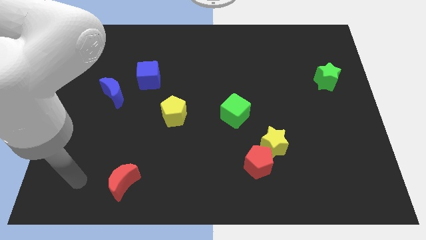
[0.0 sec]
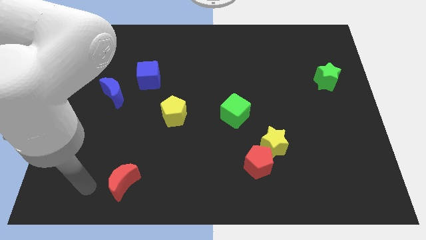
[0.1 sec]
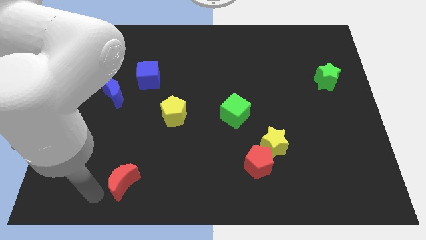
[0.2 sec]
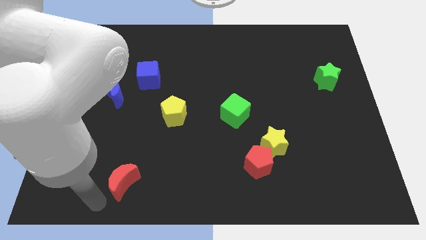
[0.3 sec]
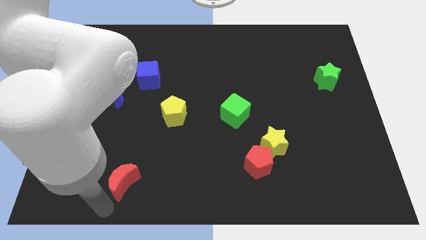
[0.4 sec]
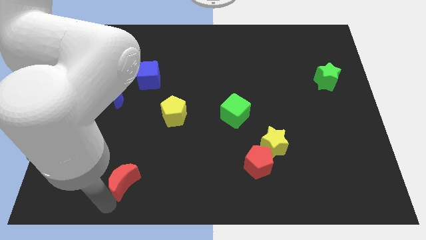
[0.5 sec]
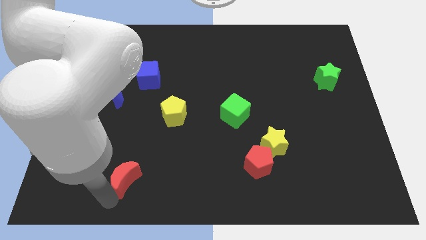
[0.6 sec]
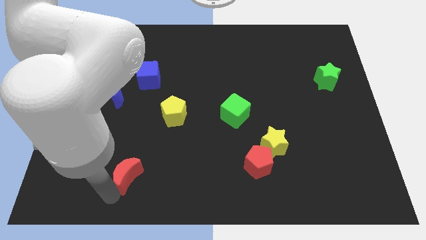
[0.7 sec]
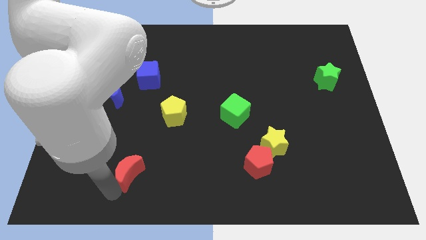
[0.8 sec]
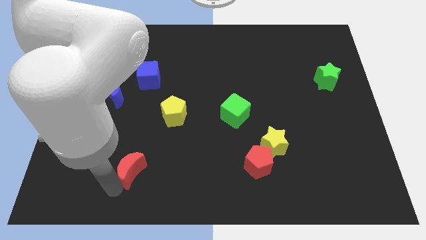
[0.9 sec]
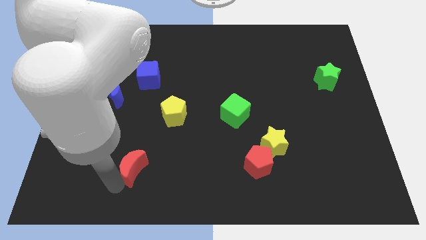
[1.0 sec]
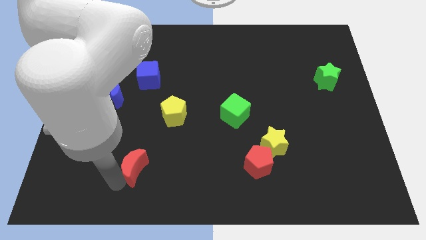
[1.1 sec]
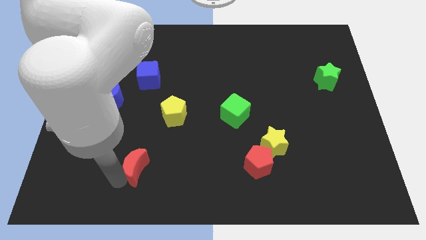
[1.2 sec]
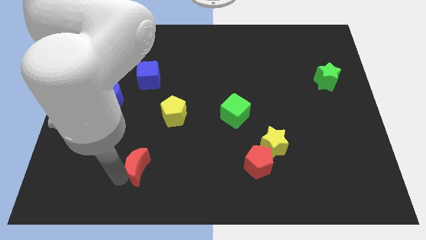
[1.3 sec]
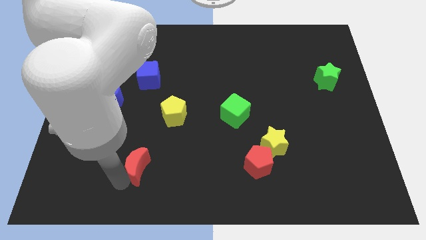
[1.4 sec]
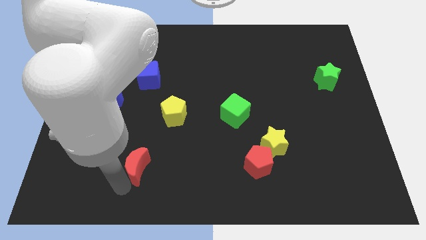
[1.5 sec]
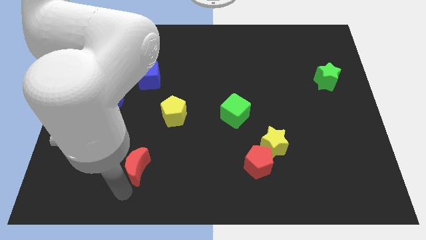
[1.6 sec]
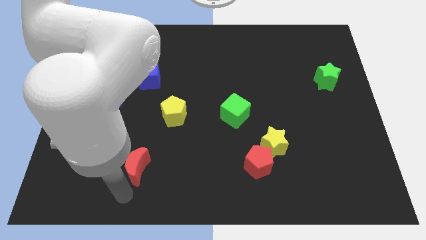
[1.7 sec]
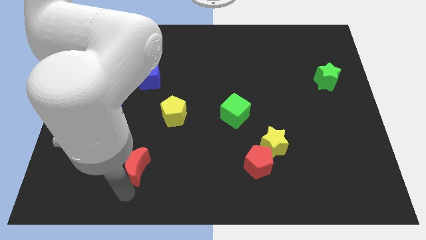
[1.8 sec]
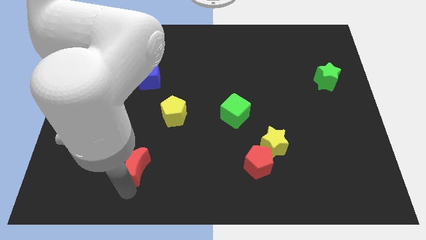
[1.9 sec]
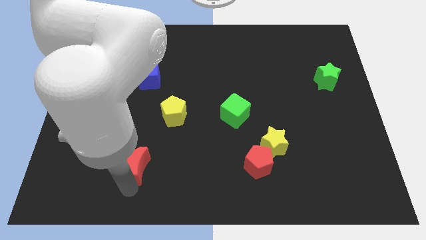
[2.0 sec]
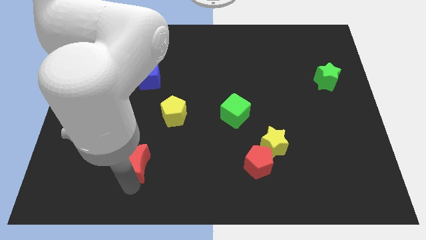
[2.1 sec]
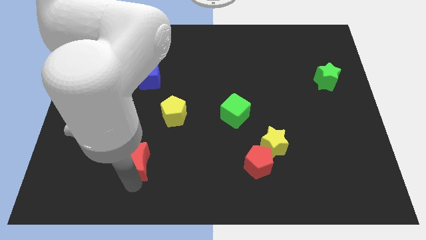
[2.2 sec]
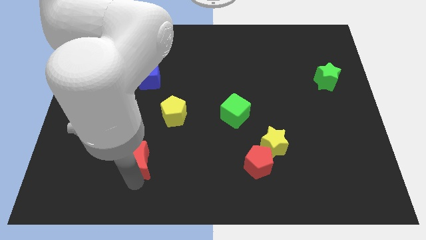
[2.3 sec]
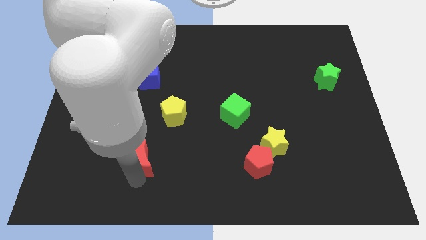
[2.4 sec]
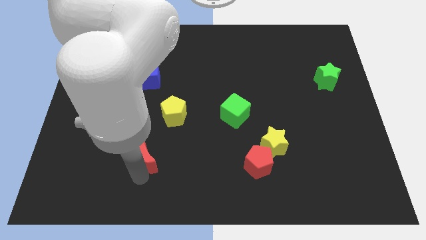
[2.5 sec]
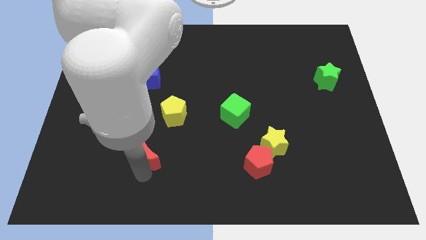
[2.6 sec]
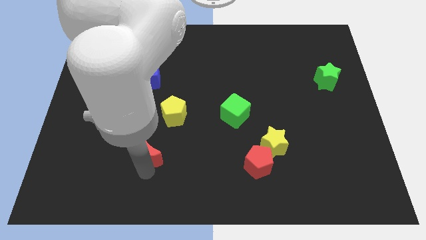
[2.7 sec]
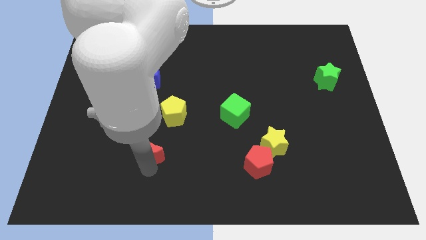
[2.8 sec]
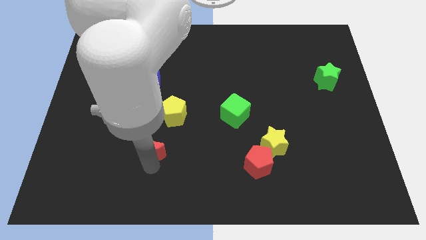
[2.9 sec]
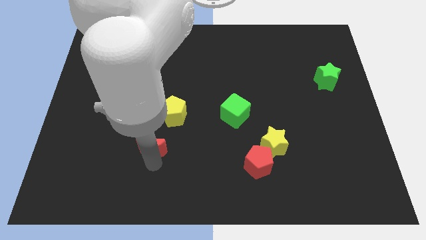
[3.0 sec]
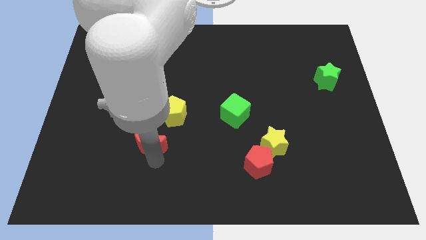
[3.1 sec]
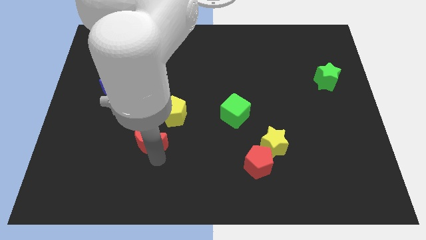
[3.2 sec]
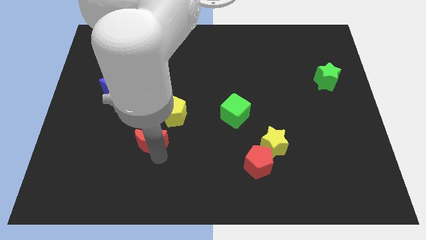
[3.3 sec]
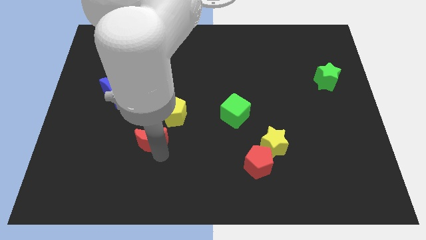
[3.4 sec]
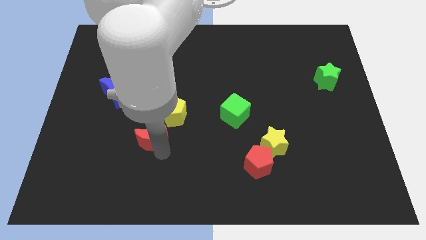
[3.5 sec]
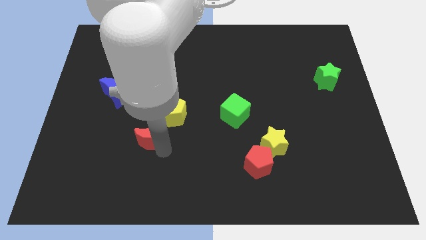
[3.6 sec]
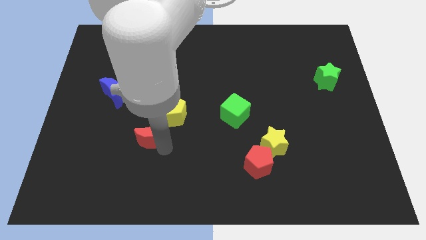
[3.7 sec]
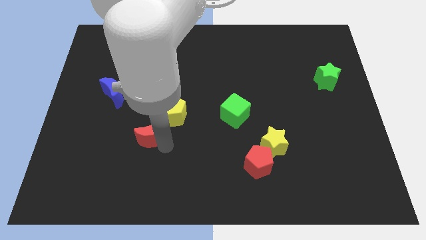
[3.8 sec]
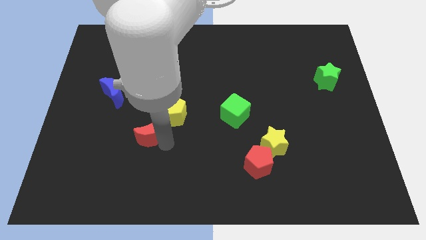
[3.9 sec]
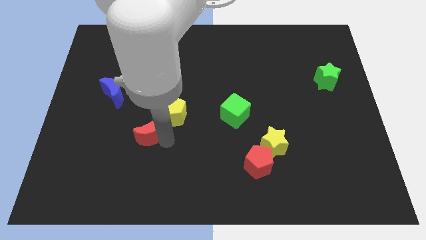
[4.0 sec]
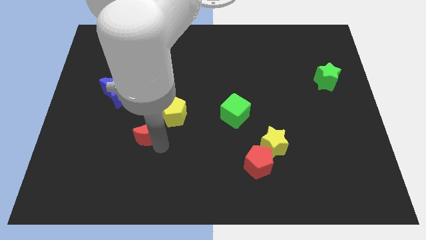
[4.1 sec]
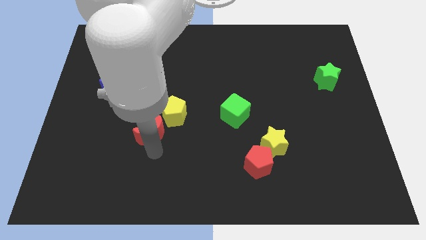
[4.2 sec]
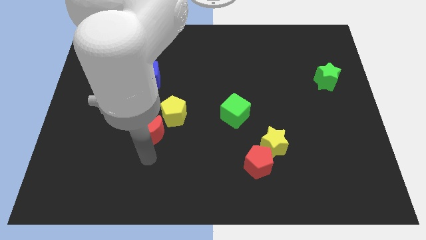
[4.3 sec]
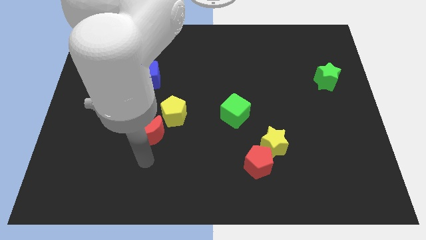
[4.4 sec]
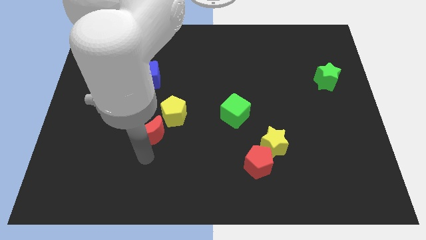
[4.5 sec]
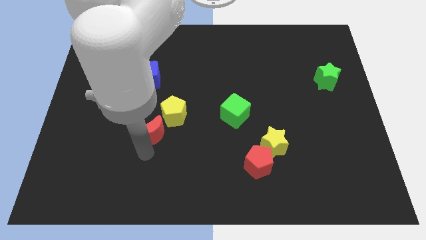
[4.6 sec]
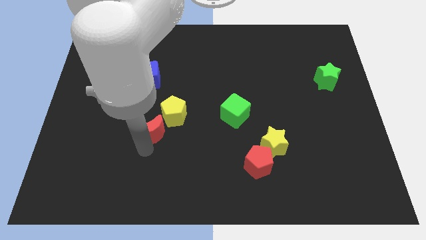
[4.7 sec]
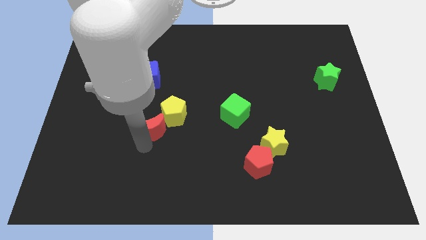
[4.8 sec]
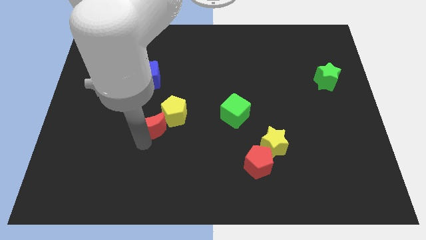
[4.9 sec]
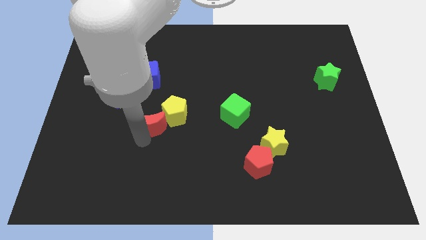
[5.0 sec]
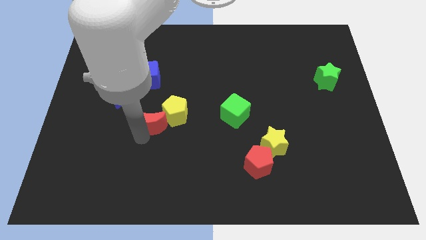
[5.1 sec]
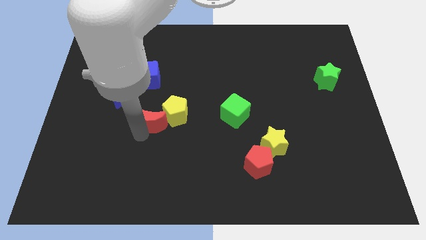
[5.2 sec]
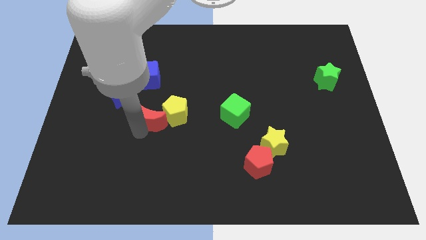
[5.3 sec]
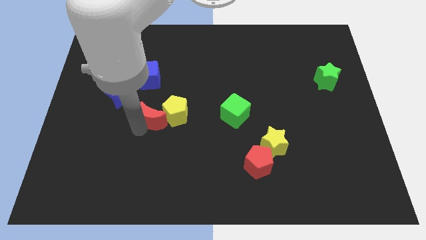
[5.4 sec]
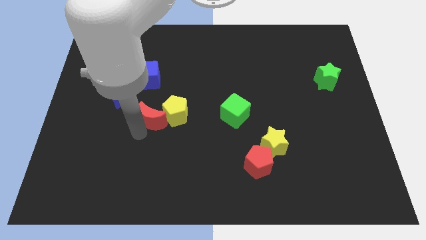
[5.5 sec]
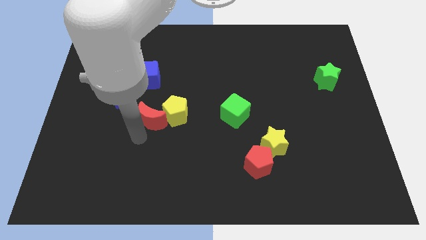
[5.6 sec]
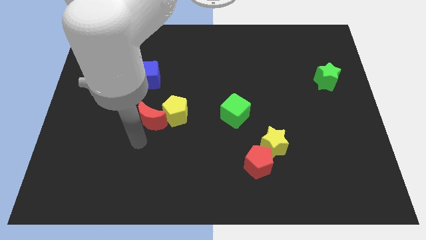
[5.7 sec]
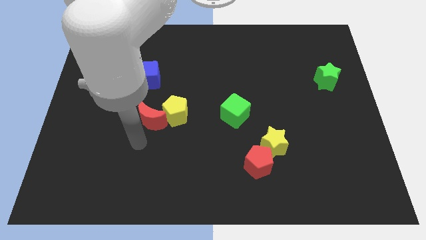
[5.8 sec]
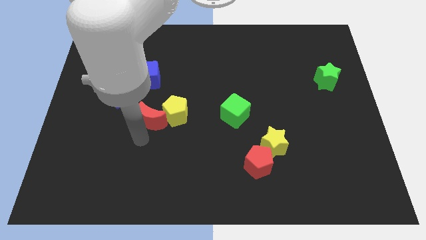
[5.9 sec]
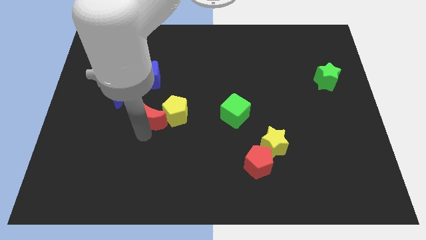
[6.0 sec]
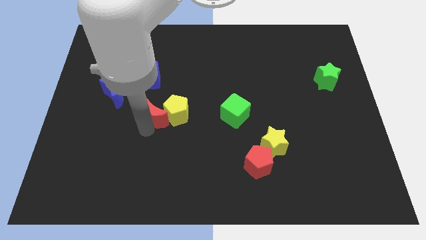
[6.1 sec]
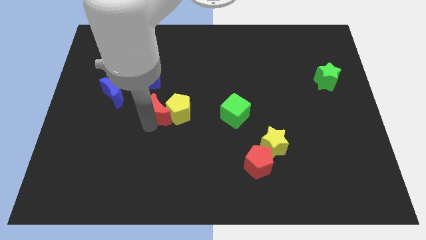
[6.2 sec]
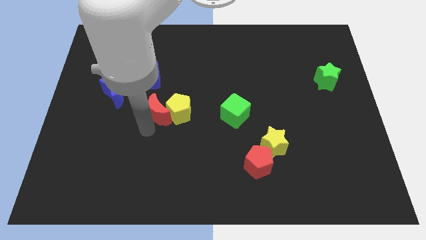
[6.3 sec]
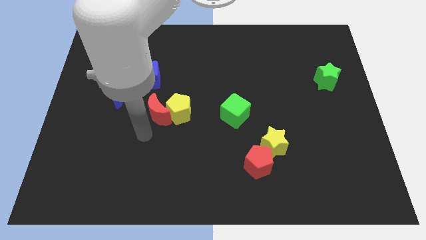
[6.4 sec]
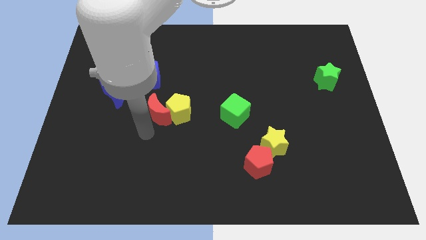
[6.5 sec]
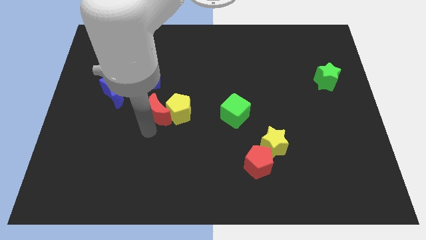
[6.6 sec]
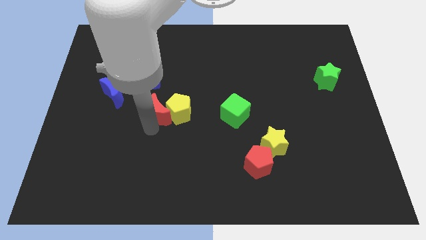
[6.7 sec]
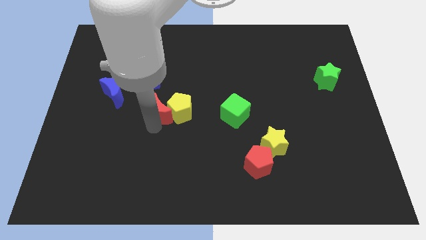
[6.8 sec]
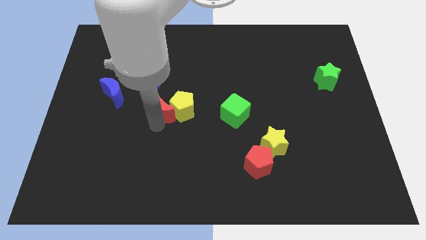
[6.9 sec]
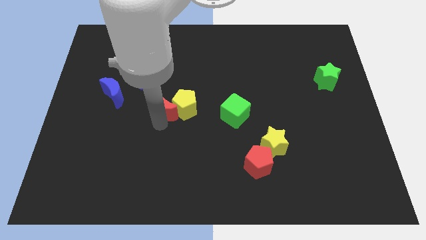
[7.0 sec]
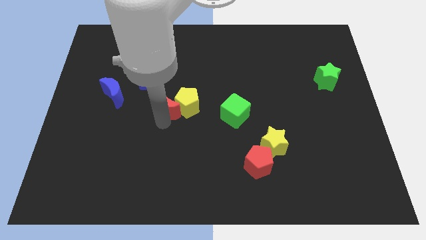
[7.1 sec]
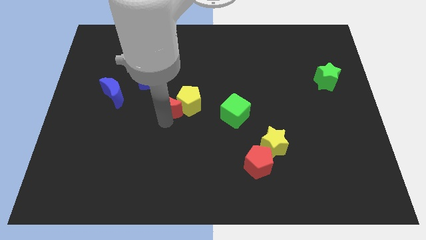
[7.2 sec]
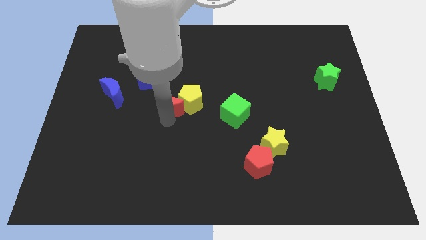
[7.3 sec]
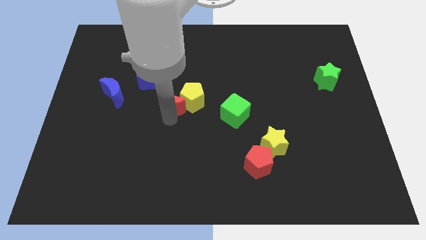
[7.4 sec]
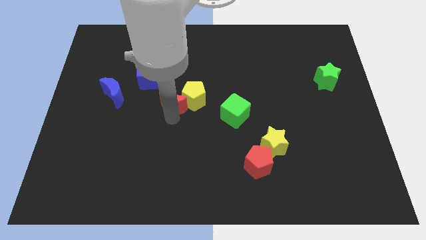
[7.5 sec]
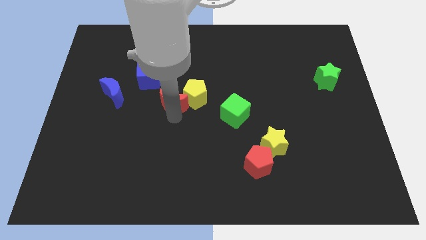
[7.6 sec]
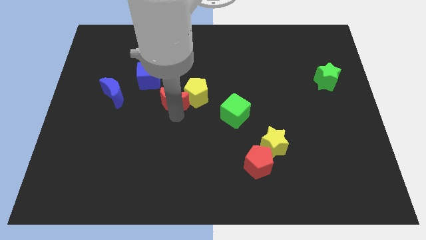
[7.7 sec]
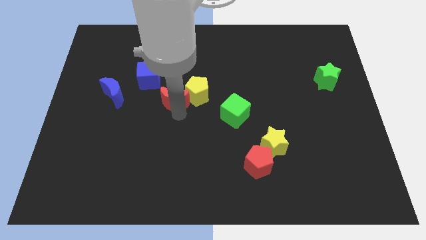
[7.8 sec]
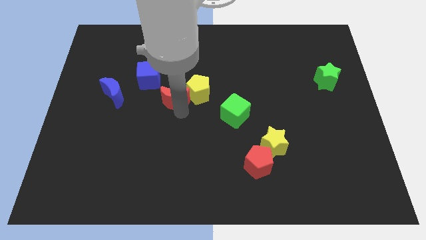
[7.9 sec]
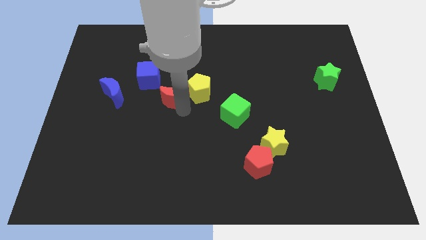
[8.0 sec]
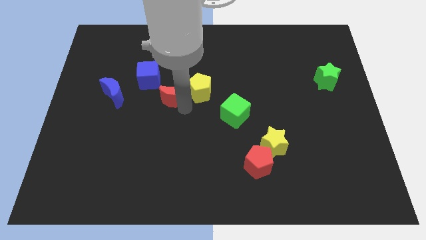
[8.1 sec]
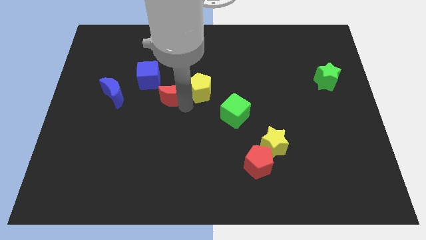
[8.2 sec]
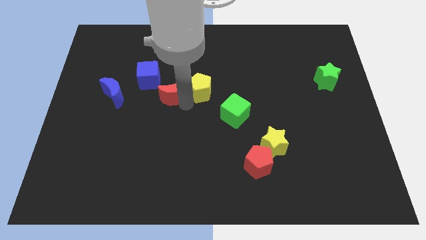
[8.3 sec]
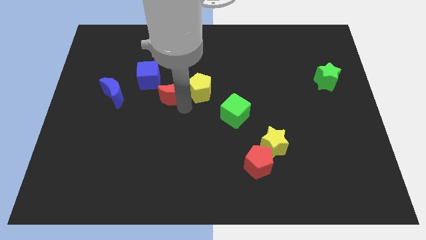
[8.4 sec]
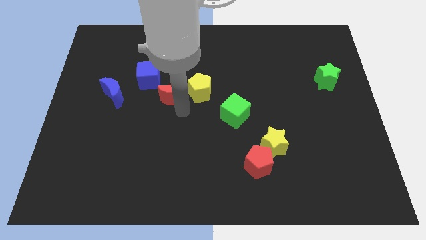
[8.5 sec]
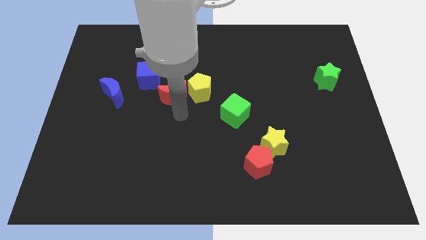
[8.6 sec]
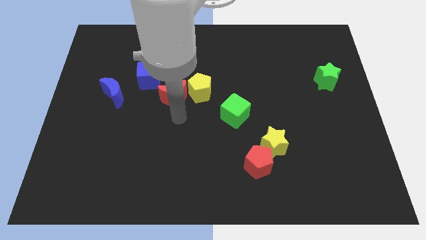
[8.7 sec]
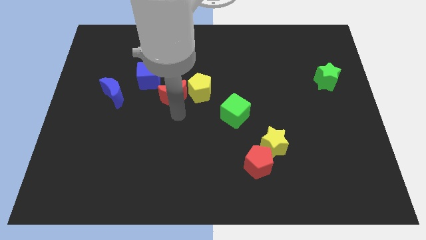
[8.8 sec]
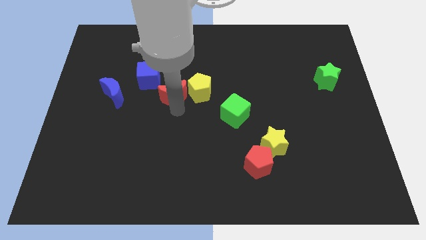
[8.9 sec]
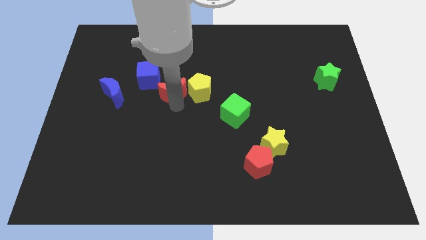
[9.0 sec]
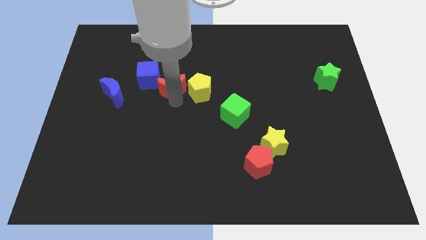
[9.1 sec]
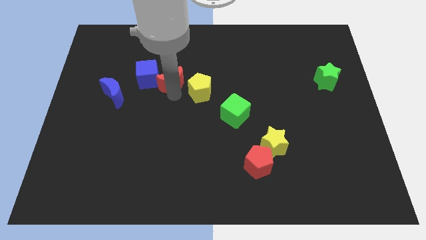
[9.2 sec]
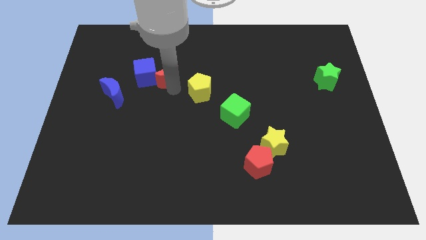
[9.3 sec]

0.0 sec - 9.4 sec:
put the red moon to the top right side of the blue cube
